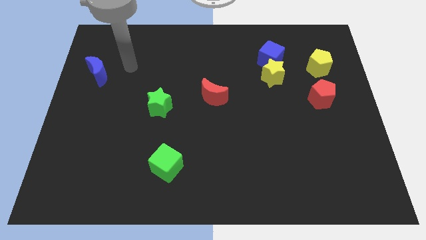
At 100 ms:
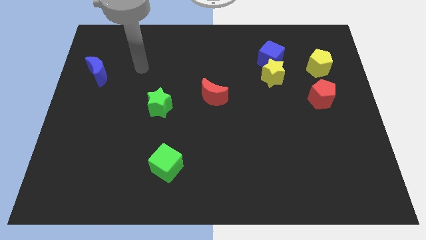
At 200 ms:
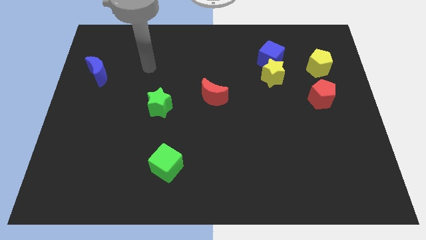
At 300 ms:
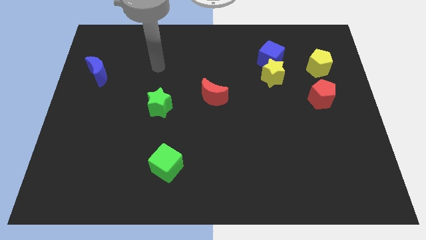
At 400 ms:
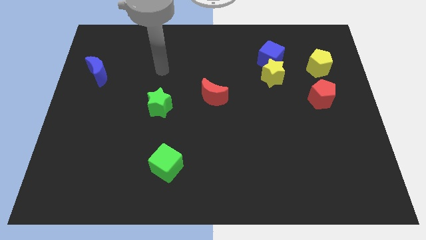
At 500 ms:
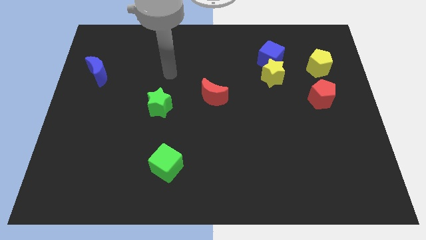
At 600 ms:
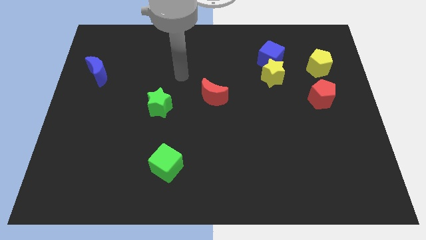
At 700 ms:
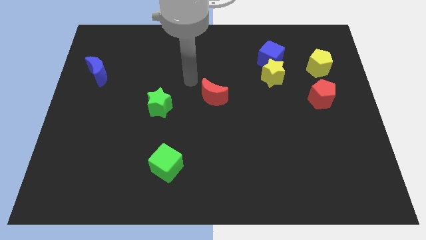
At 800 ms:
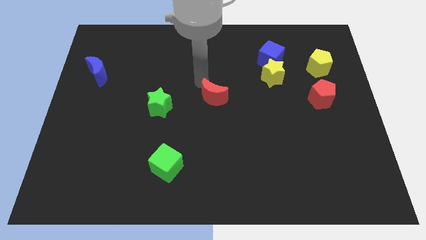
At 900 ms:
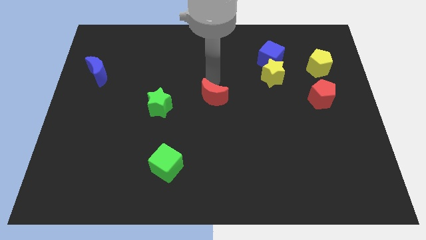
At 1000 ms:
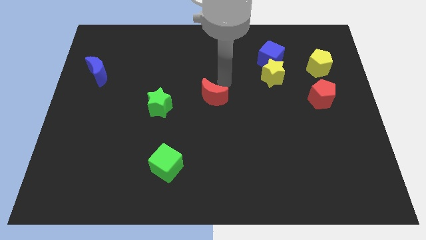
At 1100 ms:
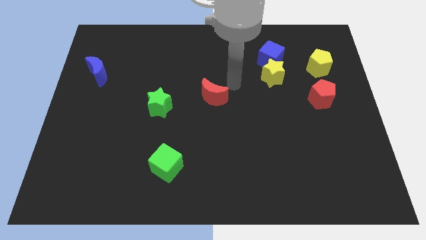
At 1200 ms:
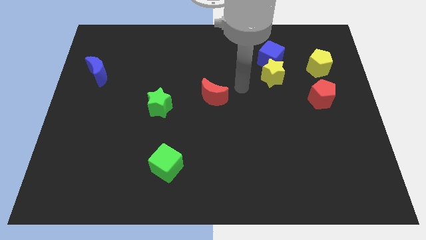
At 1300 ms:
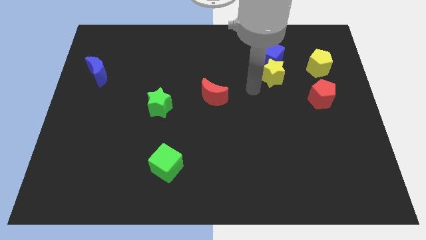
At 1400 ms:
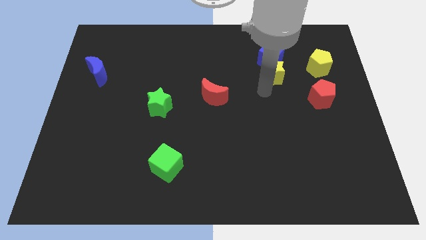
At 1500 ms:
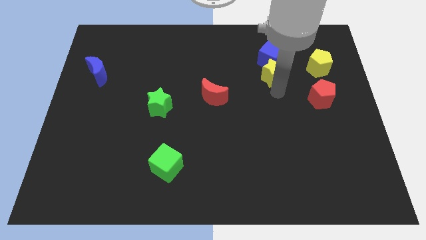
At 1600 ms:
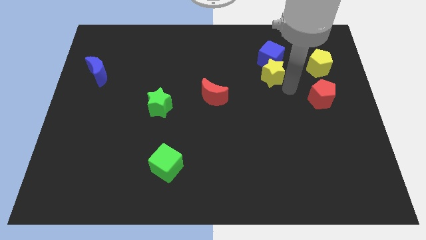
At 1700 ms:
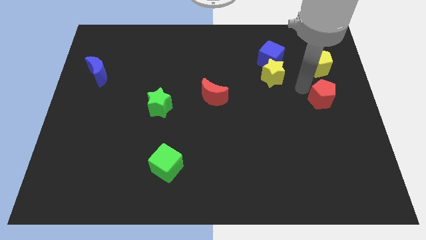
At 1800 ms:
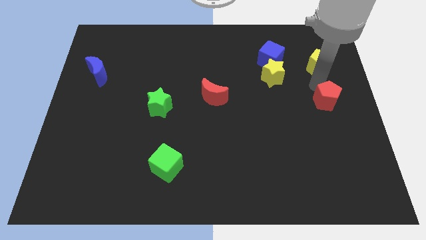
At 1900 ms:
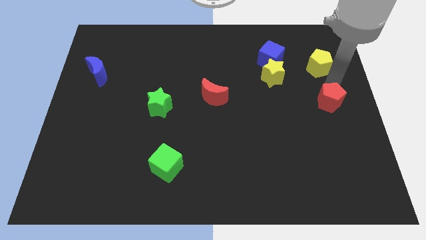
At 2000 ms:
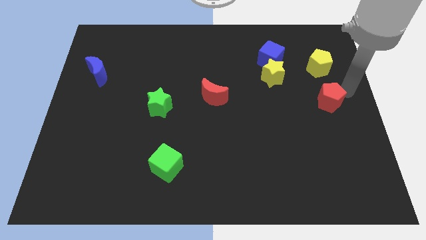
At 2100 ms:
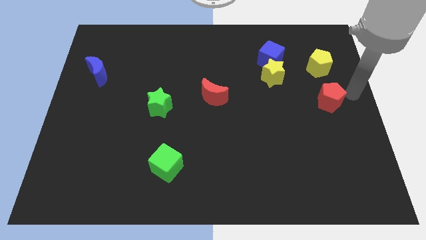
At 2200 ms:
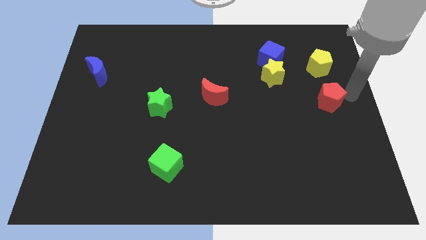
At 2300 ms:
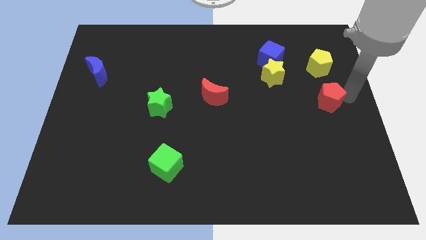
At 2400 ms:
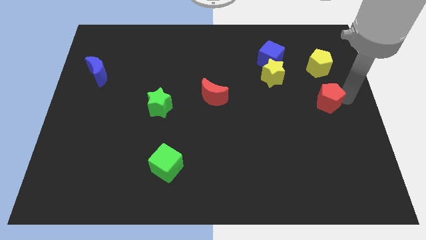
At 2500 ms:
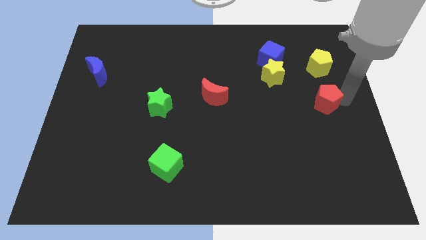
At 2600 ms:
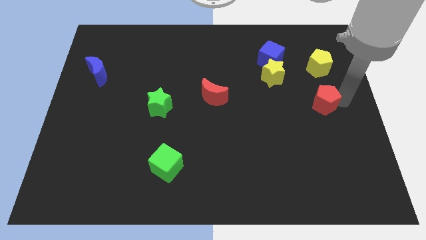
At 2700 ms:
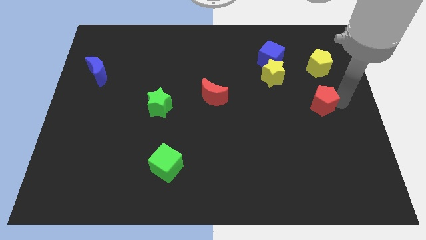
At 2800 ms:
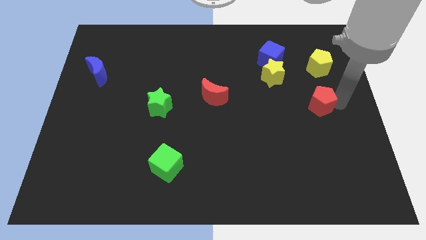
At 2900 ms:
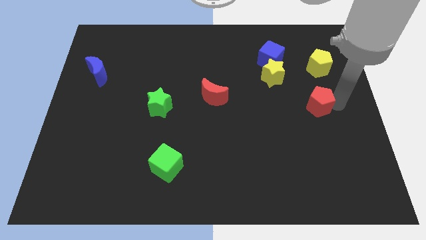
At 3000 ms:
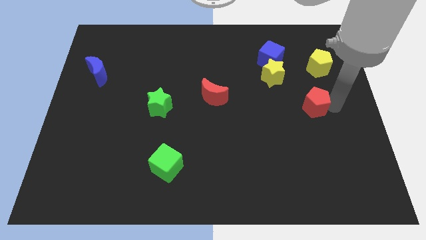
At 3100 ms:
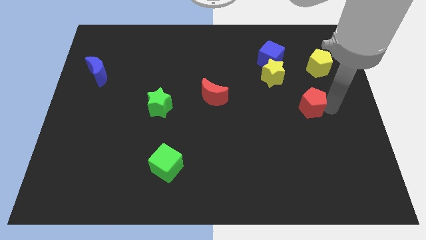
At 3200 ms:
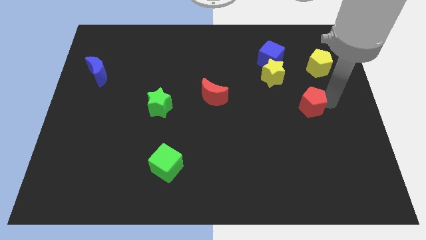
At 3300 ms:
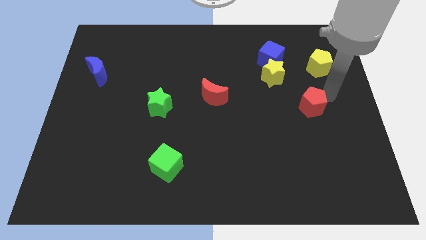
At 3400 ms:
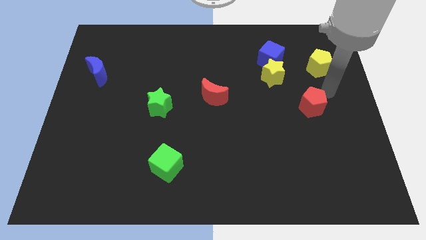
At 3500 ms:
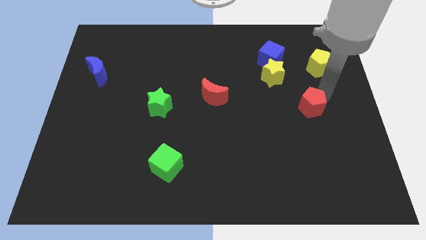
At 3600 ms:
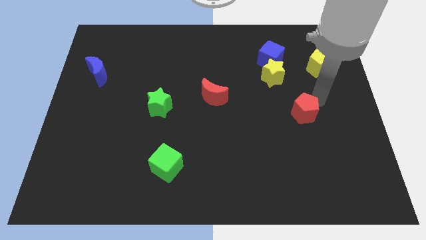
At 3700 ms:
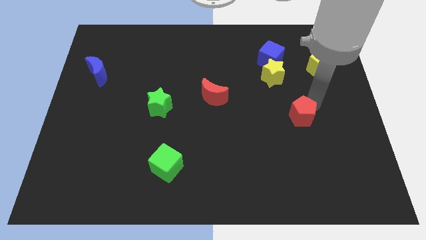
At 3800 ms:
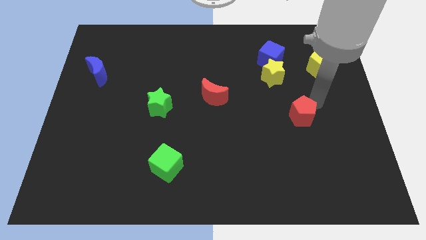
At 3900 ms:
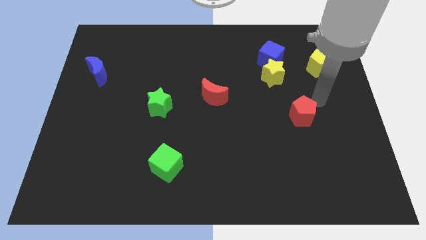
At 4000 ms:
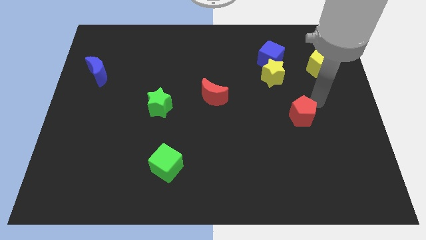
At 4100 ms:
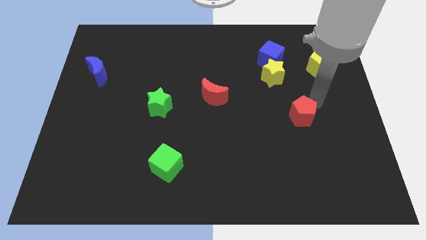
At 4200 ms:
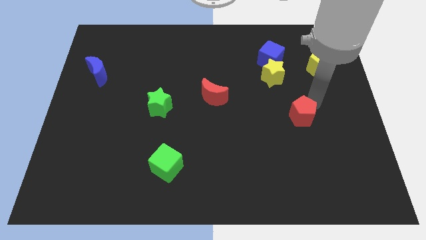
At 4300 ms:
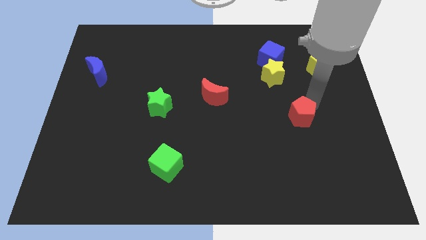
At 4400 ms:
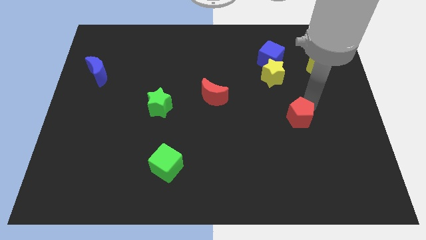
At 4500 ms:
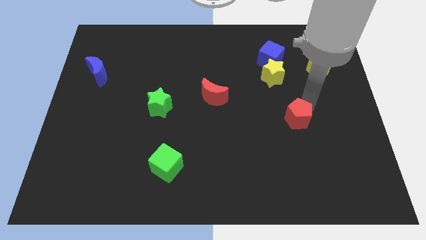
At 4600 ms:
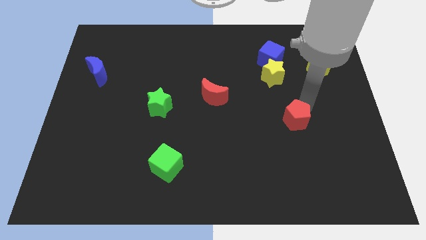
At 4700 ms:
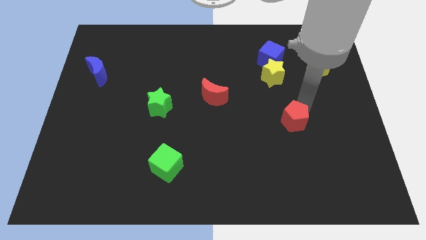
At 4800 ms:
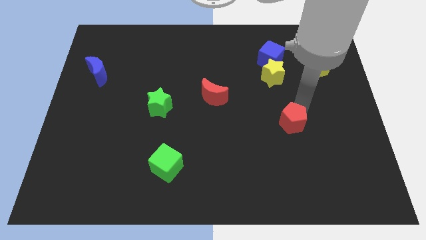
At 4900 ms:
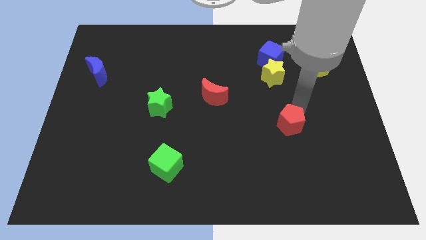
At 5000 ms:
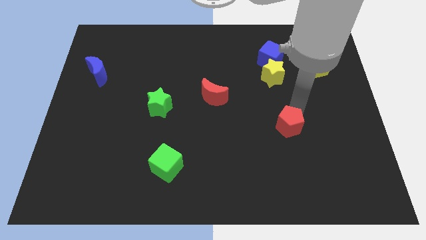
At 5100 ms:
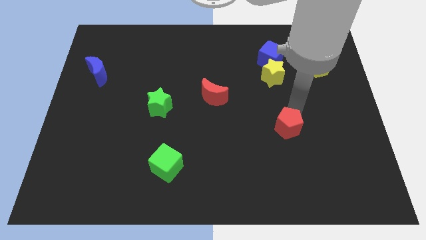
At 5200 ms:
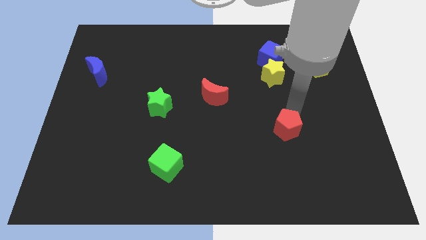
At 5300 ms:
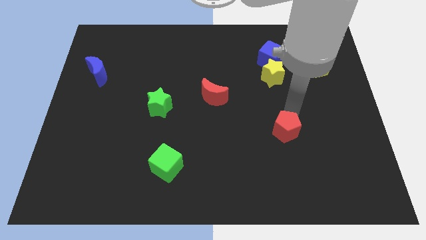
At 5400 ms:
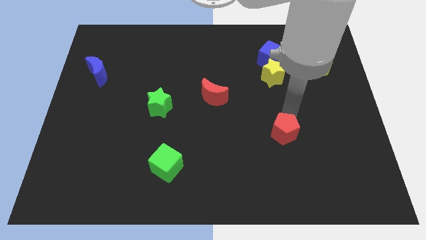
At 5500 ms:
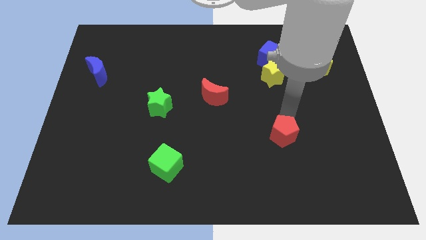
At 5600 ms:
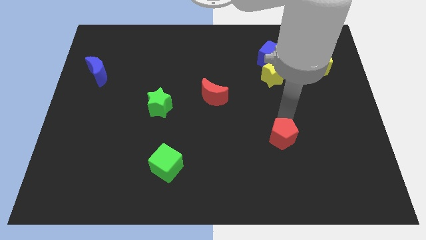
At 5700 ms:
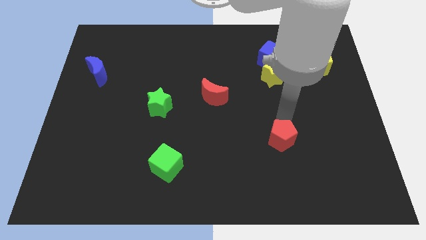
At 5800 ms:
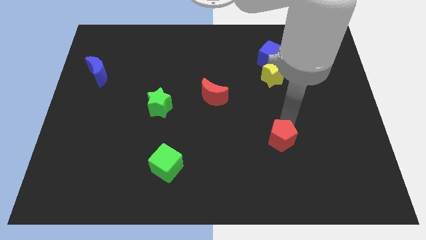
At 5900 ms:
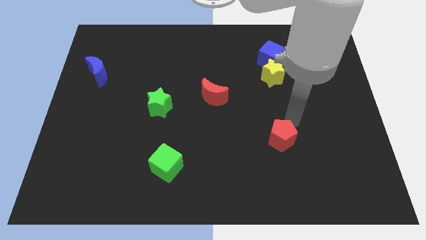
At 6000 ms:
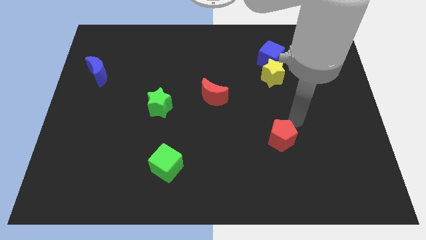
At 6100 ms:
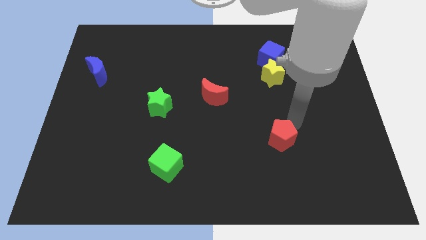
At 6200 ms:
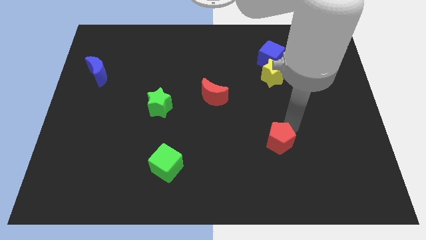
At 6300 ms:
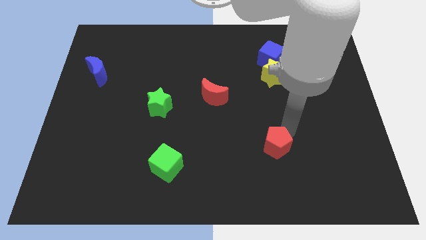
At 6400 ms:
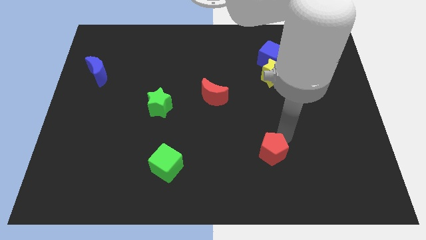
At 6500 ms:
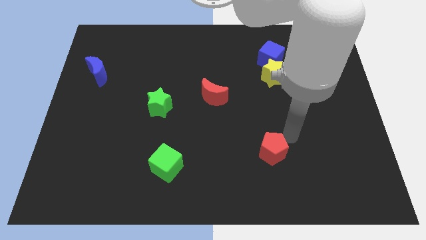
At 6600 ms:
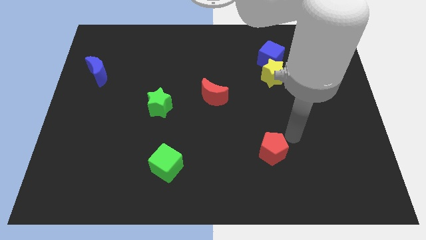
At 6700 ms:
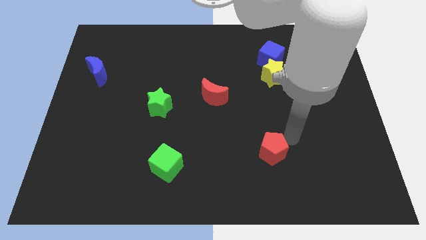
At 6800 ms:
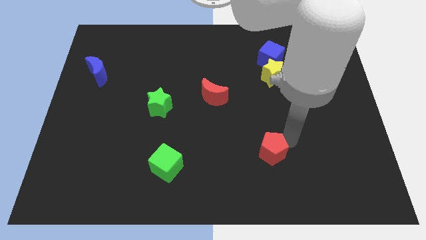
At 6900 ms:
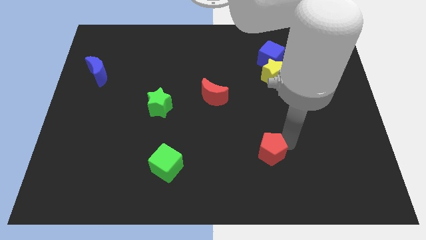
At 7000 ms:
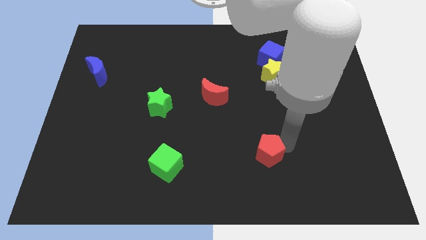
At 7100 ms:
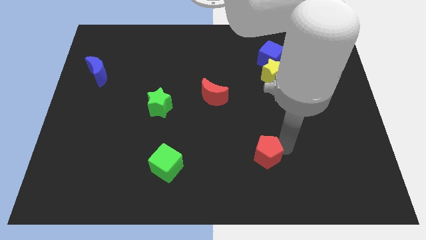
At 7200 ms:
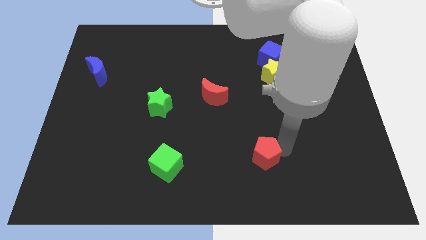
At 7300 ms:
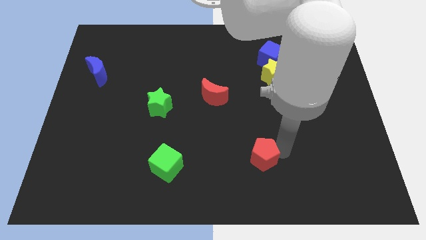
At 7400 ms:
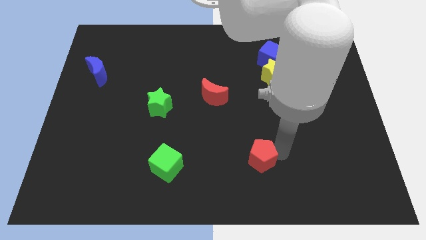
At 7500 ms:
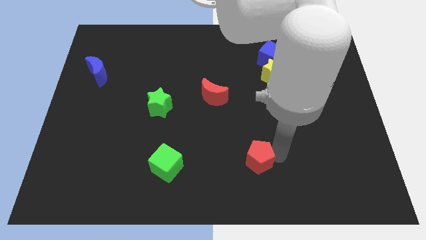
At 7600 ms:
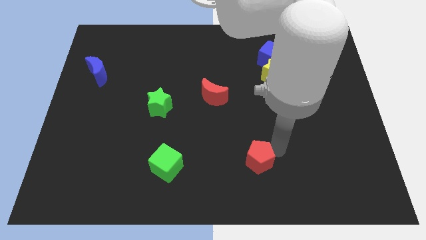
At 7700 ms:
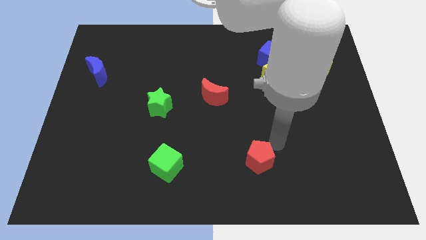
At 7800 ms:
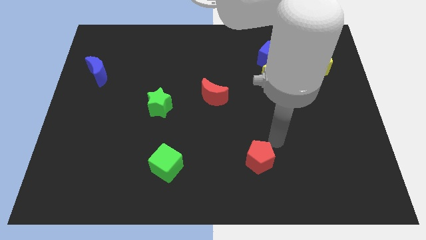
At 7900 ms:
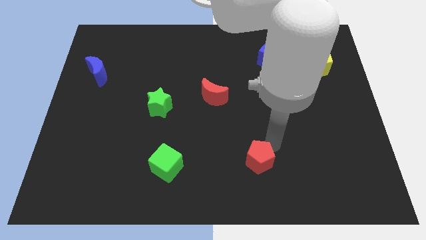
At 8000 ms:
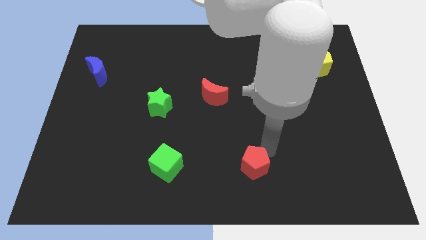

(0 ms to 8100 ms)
slide the red pentagon to the bottom
